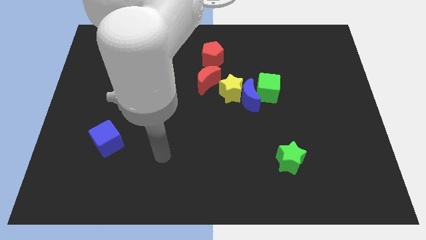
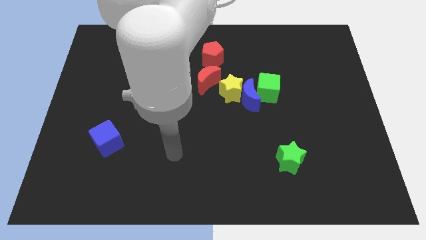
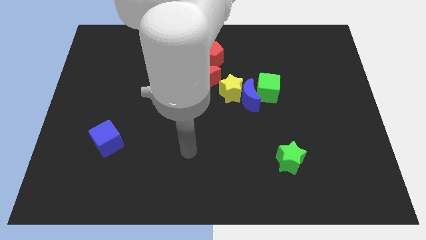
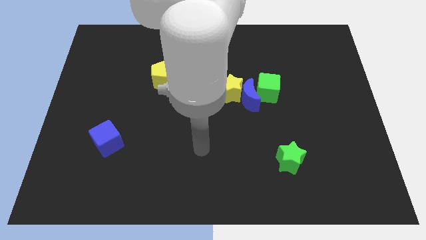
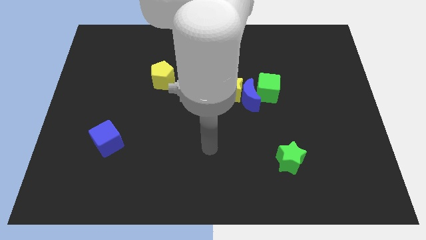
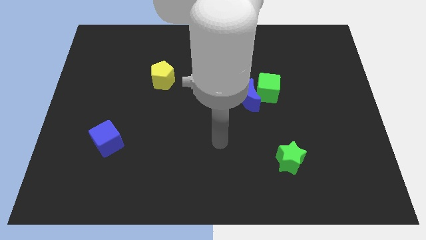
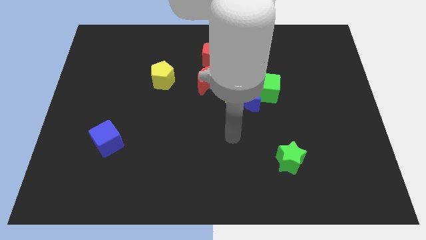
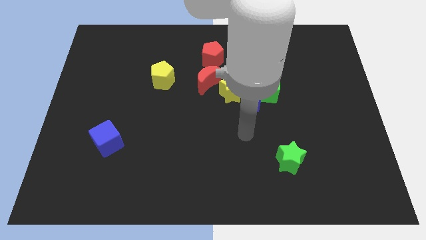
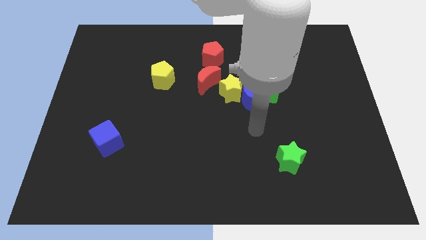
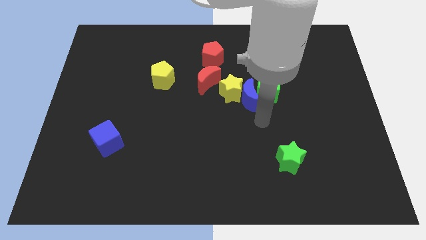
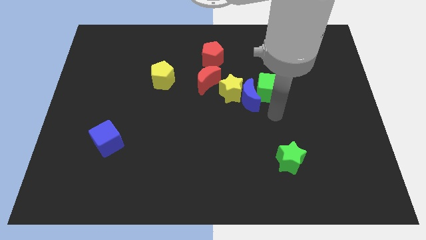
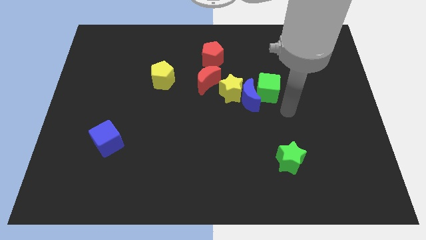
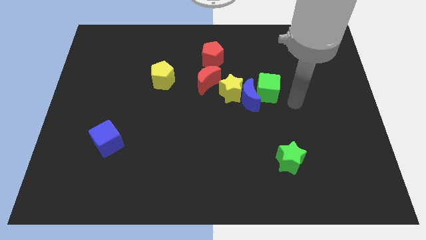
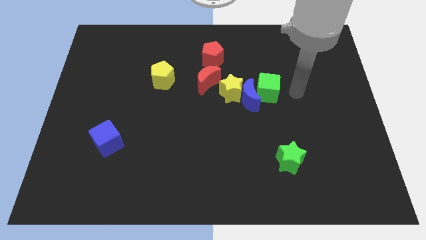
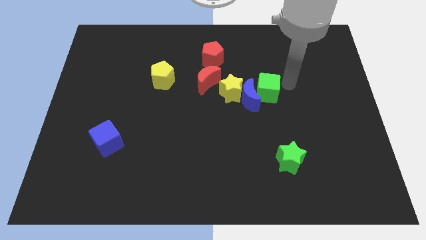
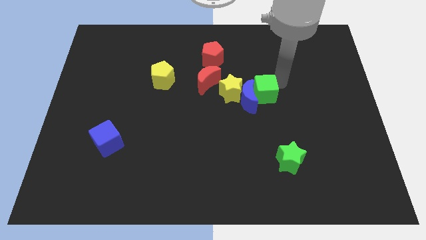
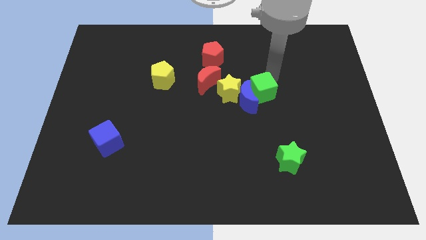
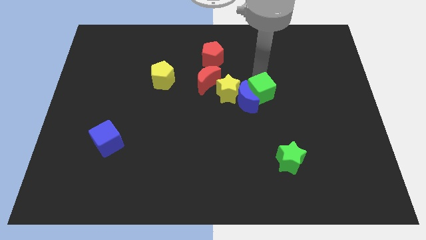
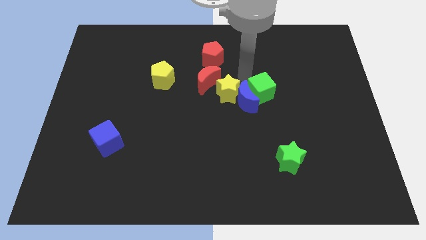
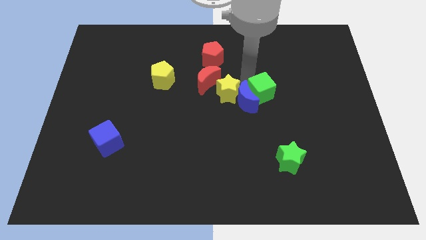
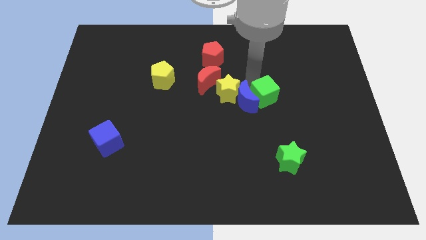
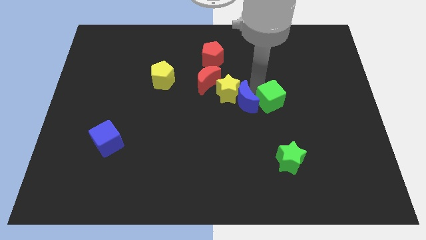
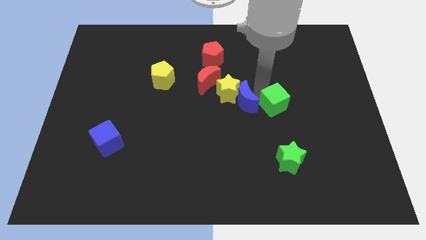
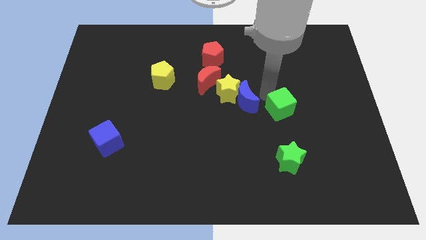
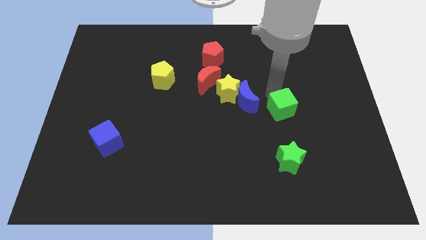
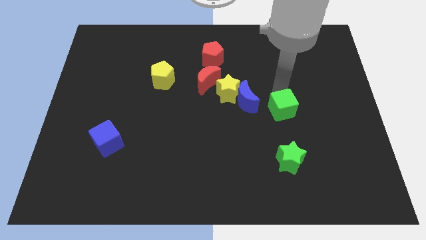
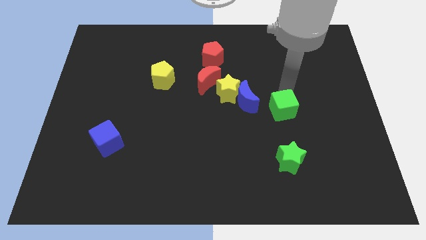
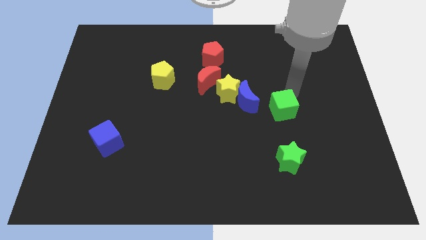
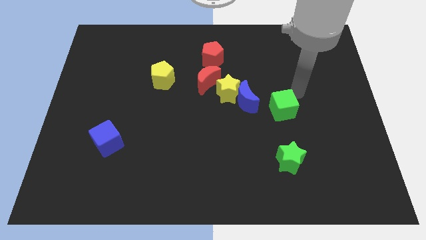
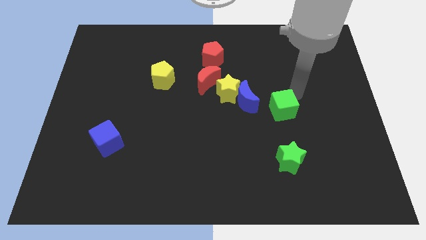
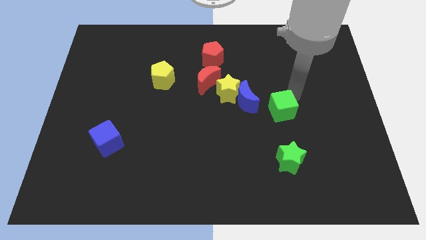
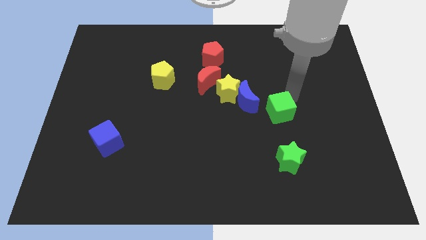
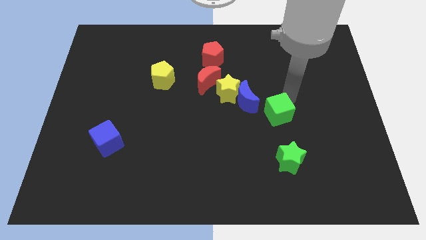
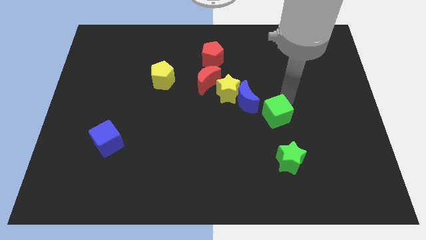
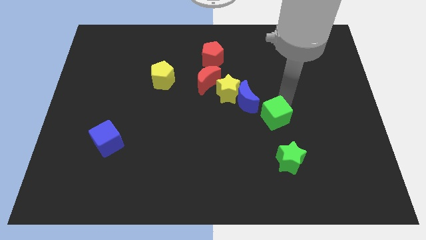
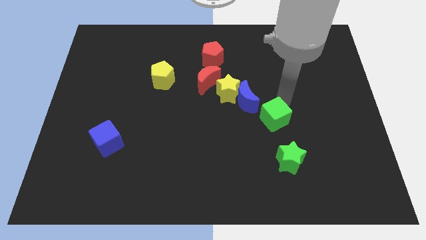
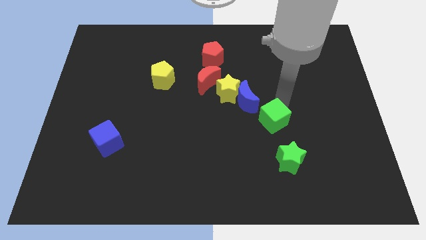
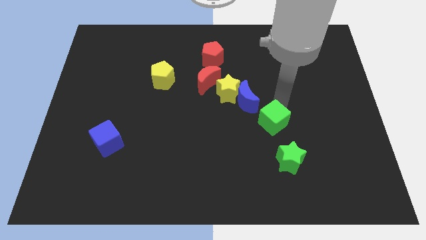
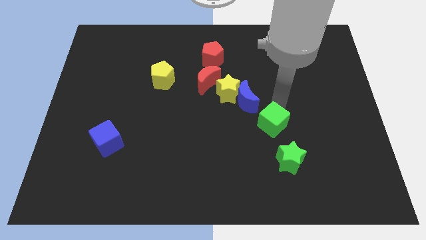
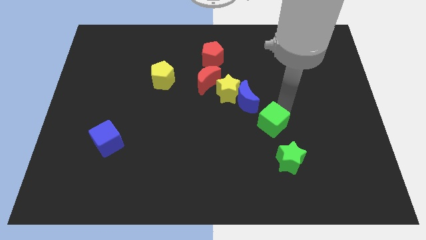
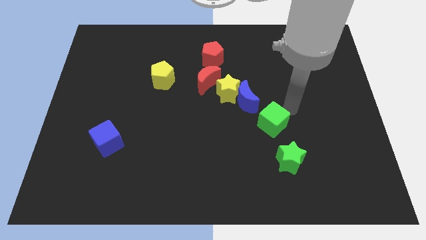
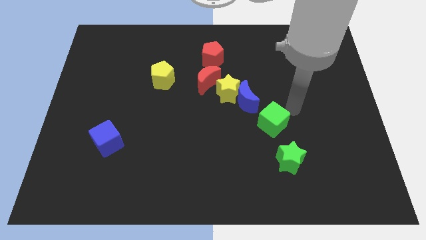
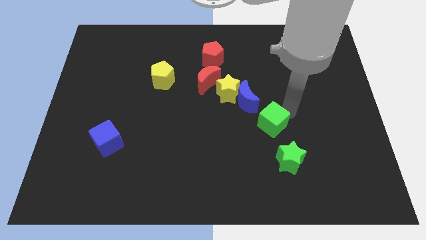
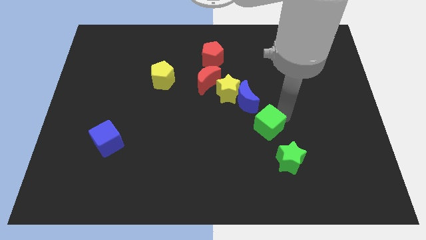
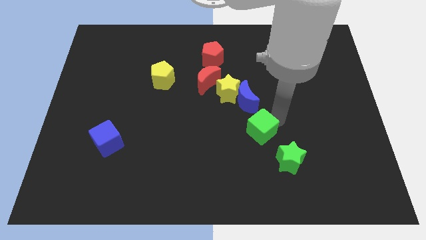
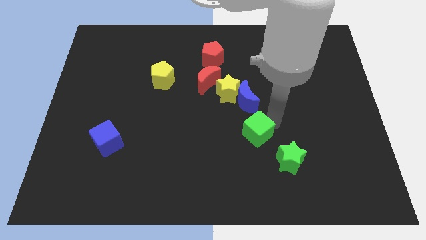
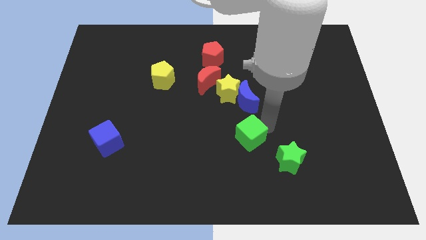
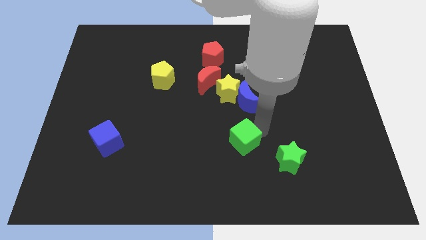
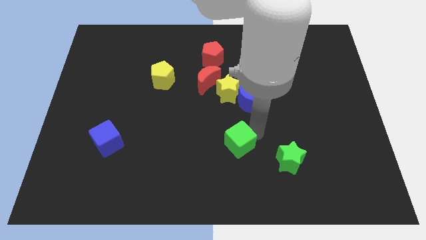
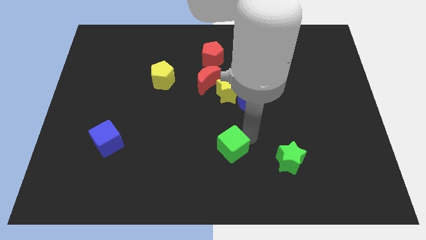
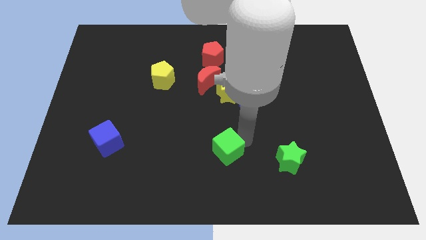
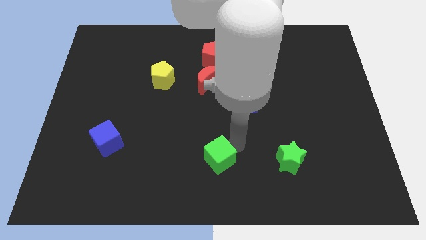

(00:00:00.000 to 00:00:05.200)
move the green cube down and then to the left

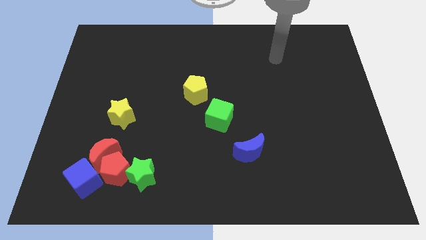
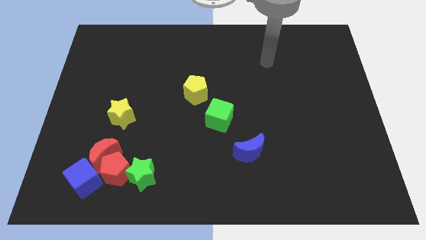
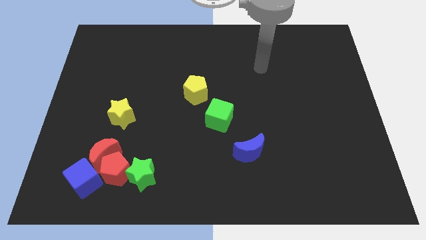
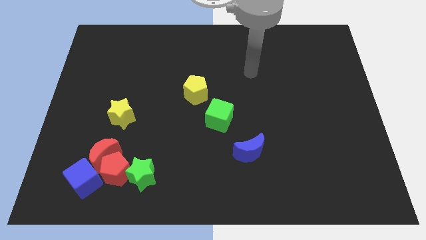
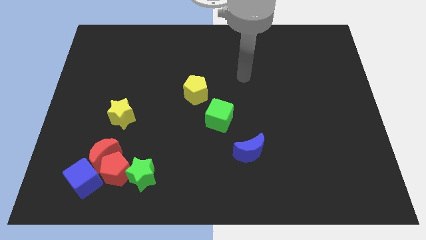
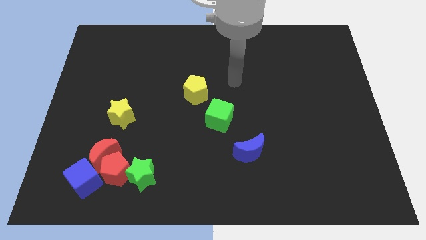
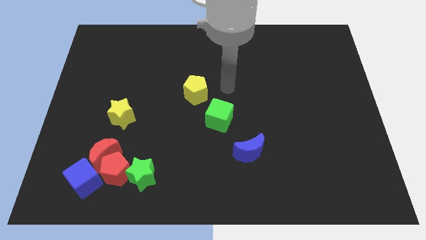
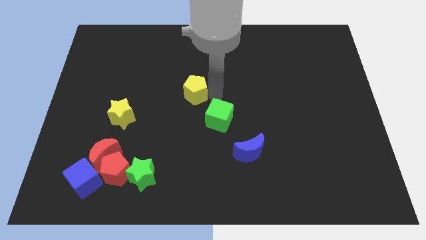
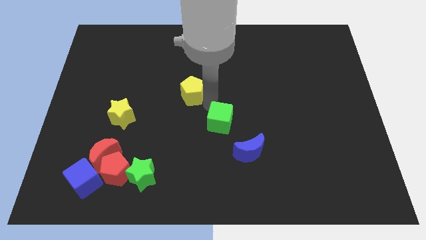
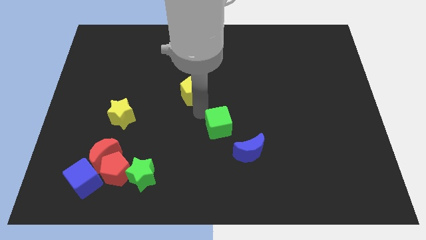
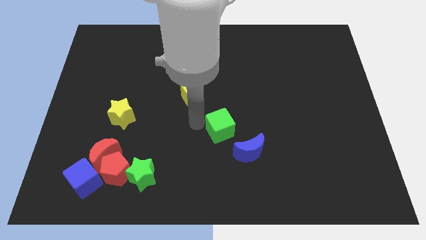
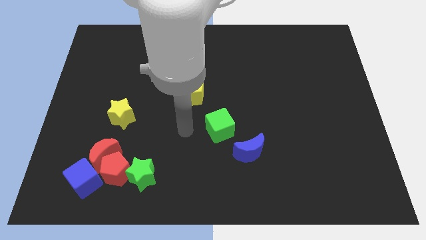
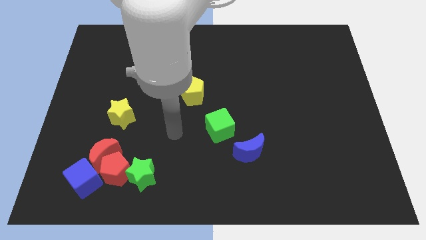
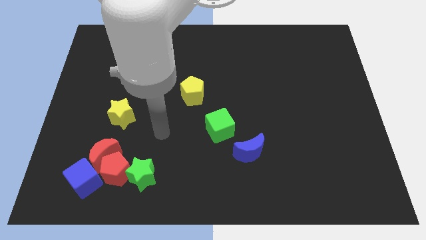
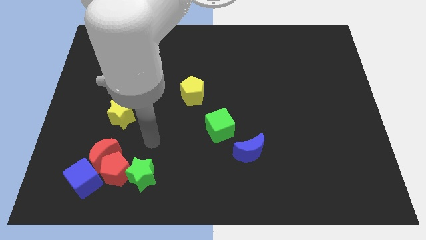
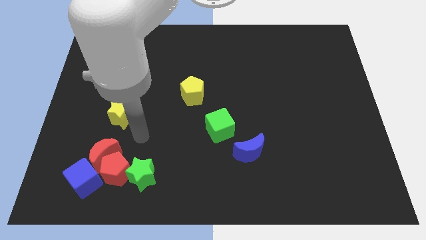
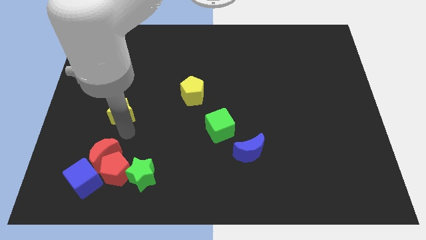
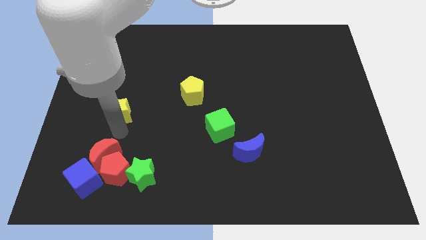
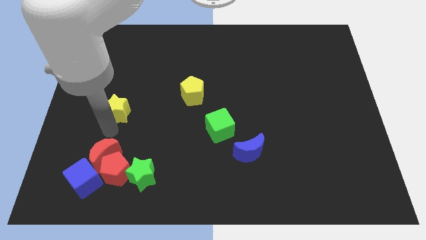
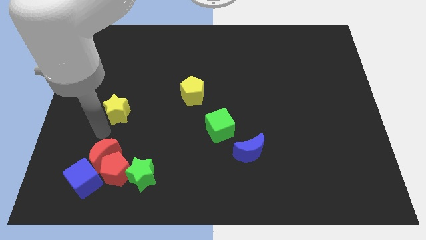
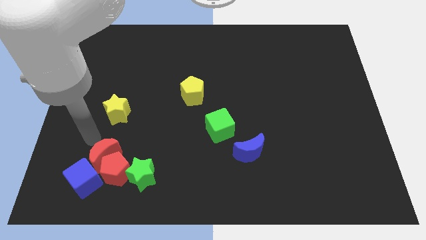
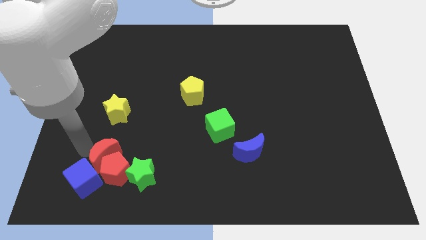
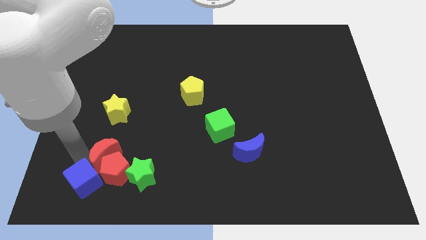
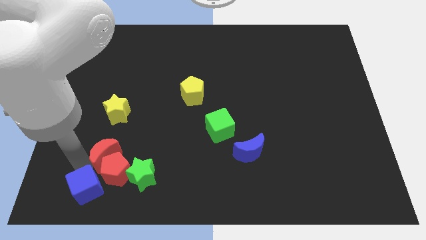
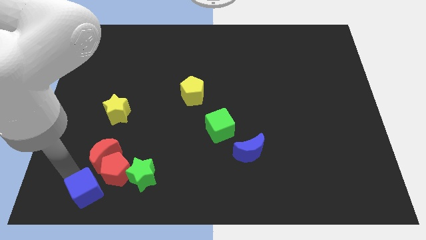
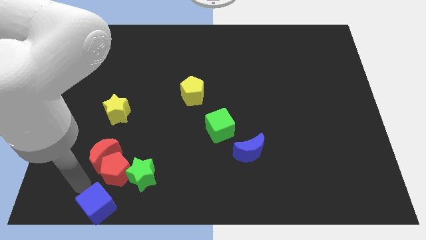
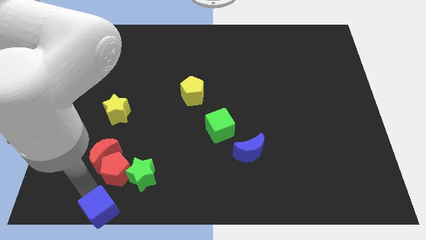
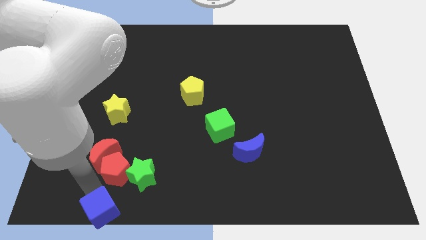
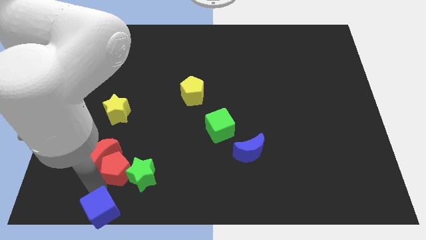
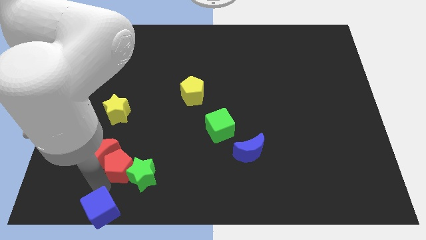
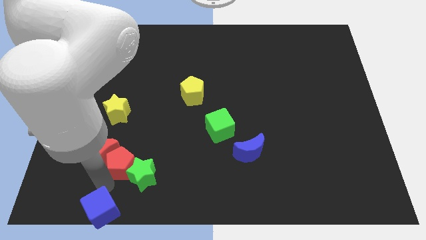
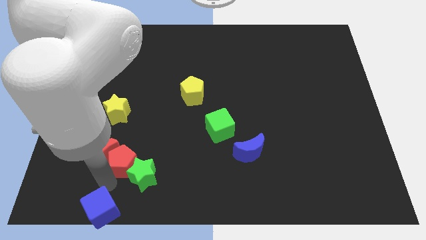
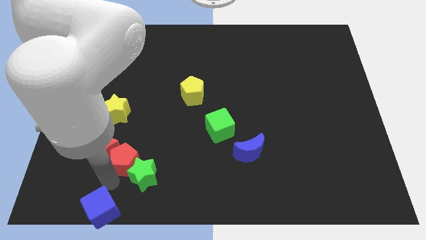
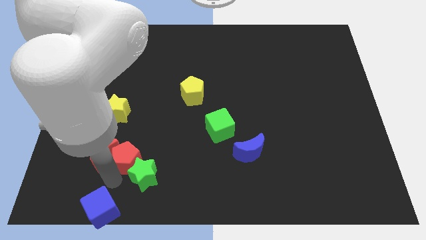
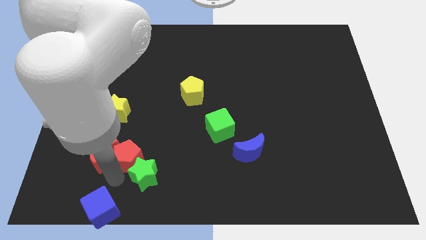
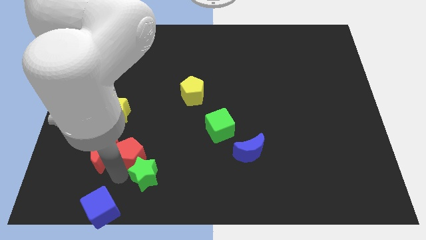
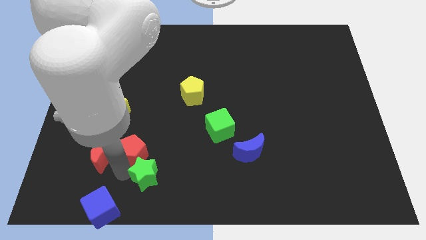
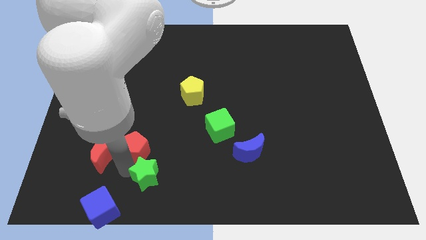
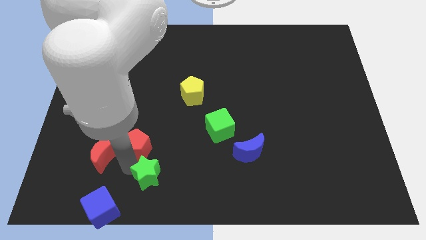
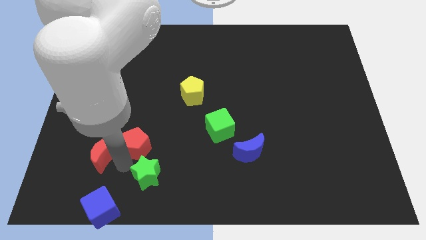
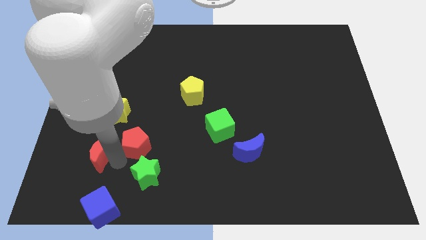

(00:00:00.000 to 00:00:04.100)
slightly push the red pentagon upwards and then to the right
